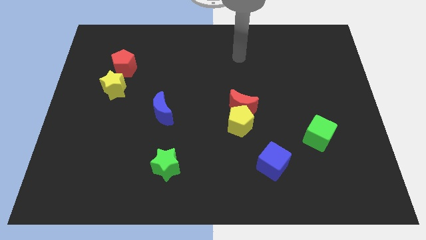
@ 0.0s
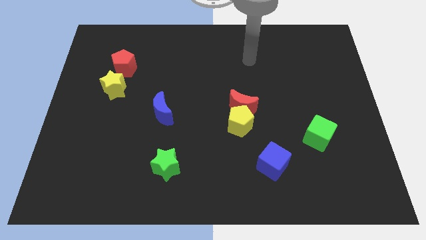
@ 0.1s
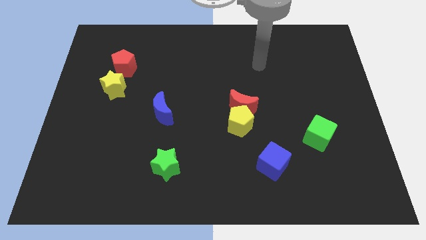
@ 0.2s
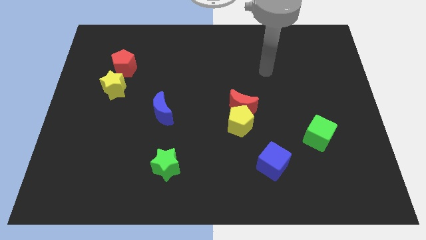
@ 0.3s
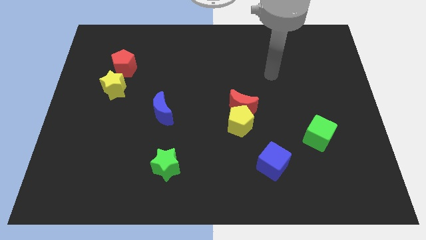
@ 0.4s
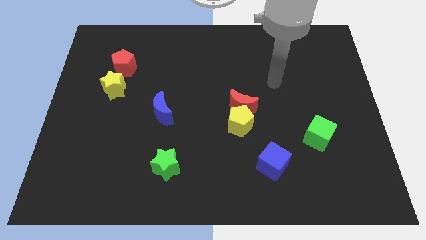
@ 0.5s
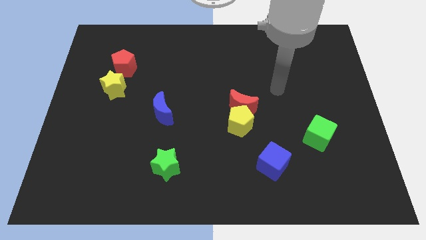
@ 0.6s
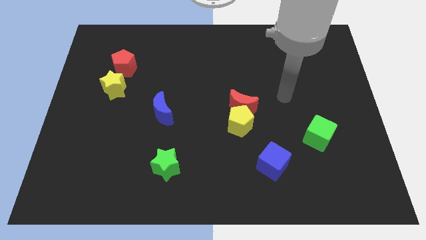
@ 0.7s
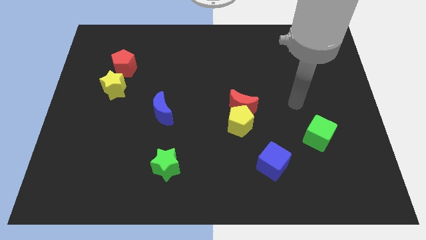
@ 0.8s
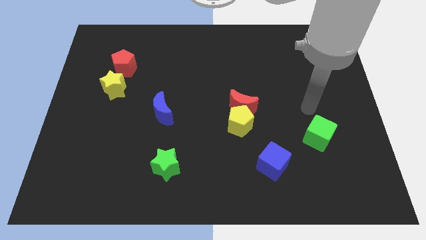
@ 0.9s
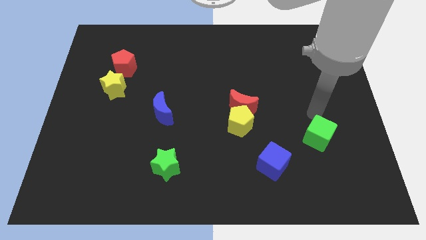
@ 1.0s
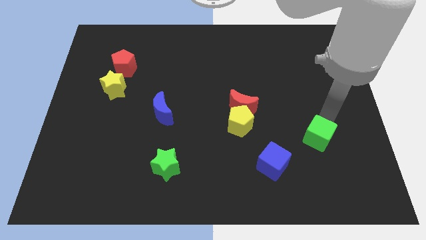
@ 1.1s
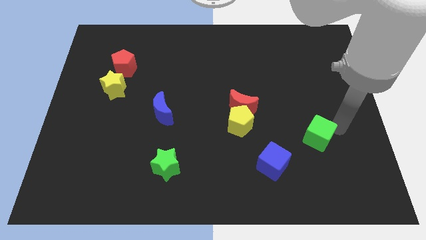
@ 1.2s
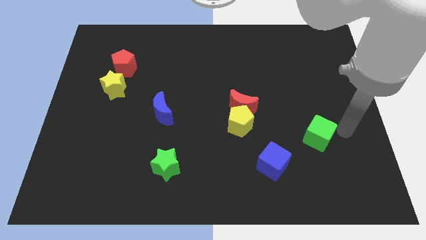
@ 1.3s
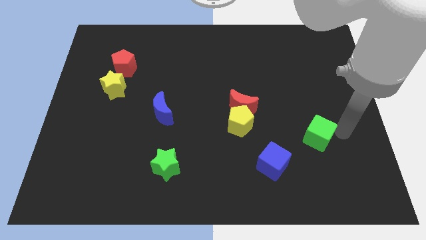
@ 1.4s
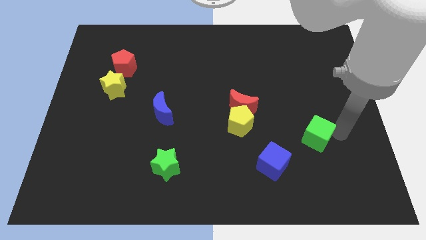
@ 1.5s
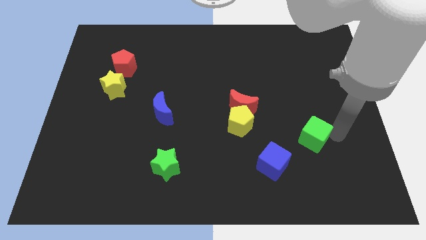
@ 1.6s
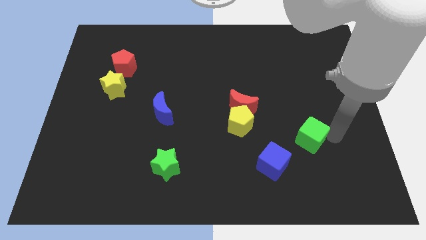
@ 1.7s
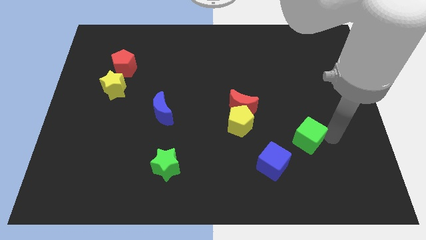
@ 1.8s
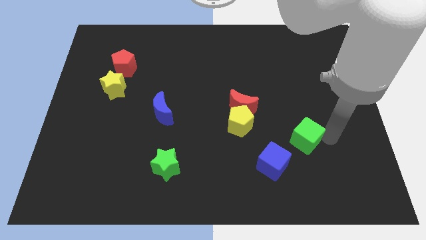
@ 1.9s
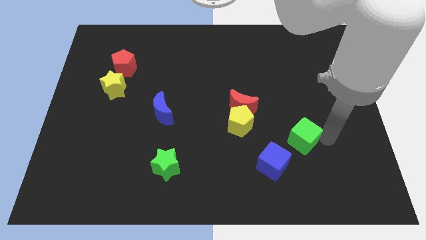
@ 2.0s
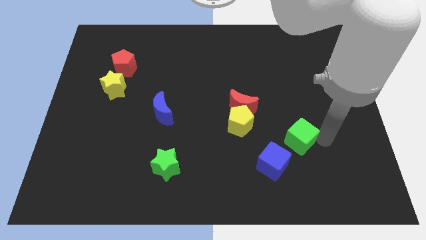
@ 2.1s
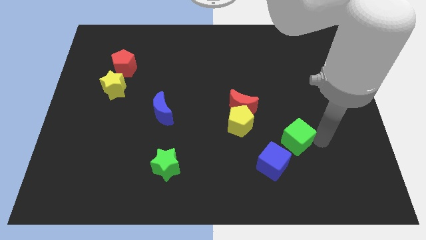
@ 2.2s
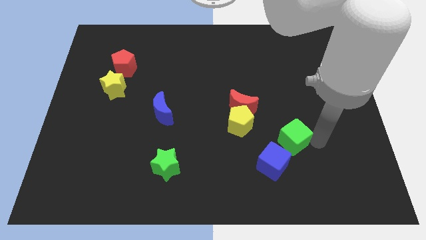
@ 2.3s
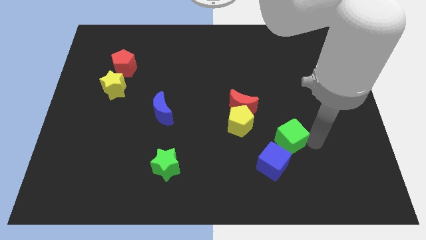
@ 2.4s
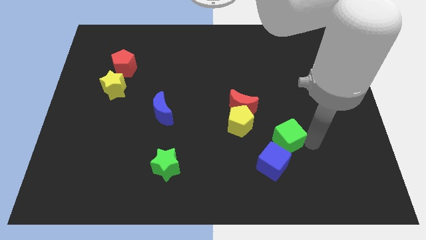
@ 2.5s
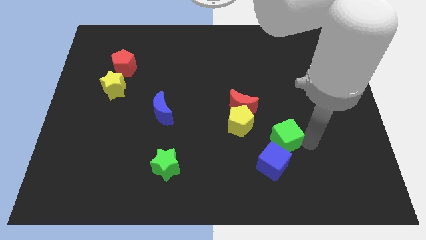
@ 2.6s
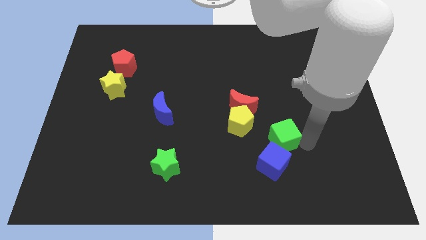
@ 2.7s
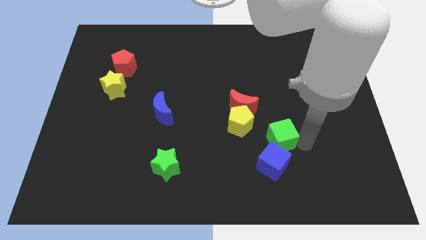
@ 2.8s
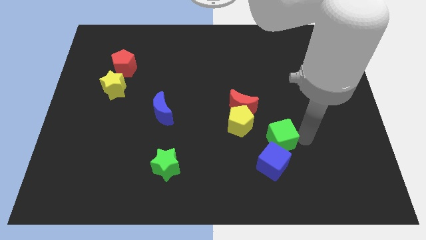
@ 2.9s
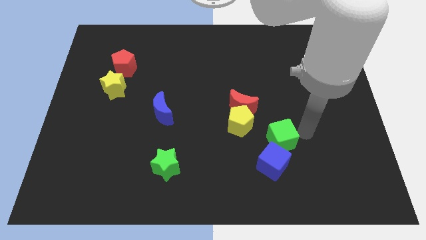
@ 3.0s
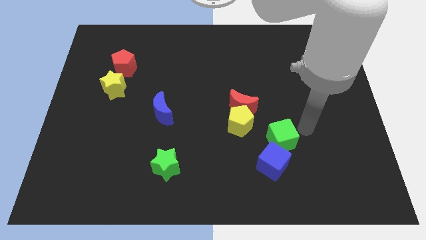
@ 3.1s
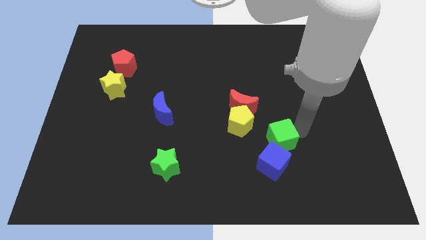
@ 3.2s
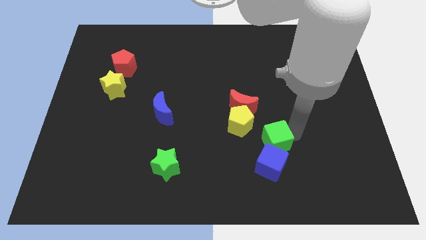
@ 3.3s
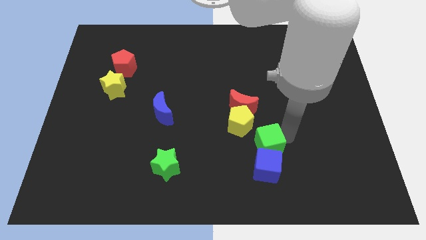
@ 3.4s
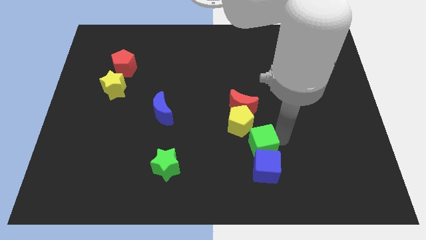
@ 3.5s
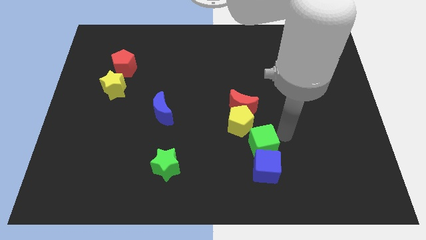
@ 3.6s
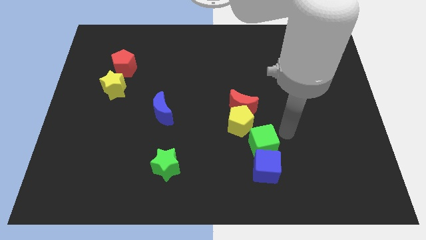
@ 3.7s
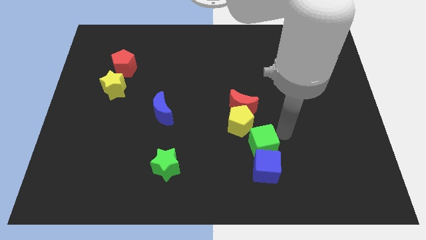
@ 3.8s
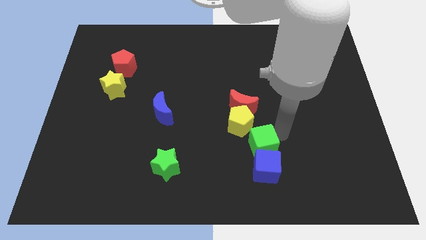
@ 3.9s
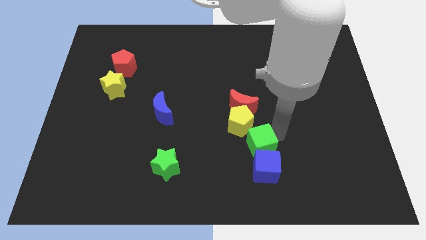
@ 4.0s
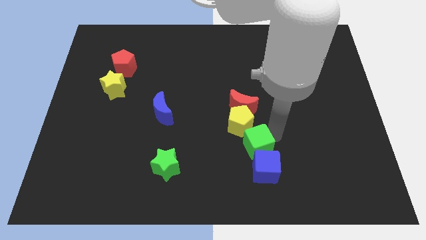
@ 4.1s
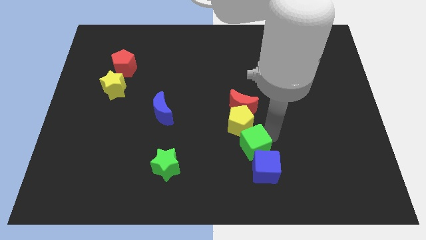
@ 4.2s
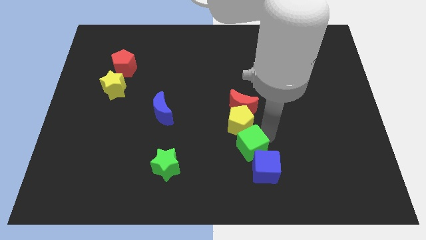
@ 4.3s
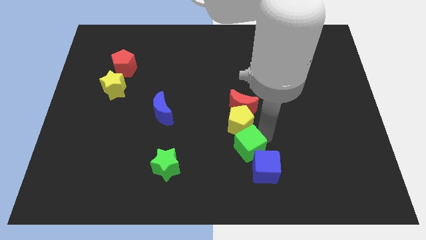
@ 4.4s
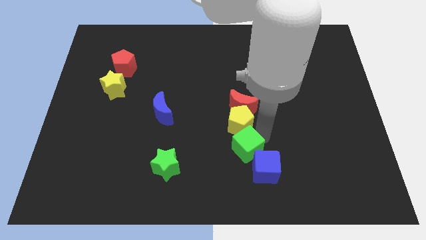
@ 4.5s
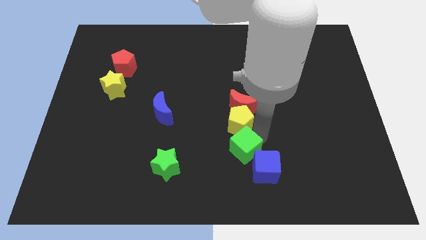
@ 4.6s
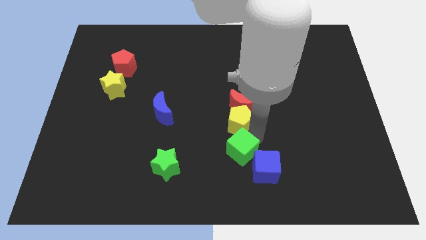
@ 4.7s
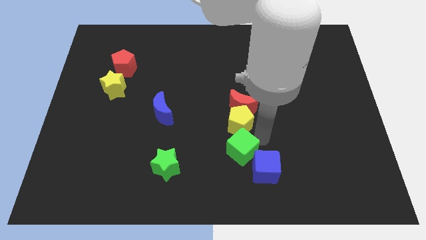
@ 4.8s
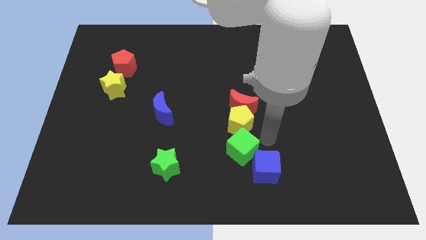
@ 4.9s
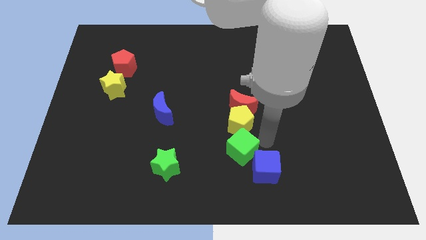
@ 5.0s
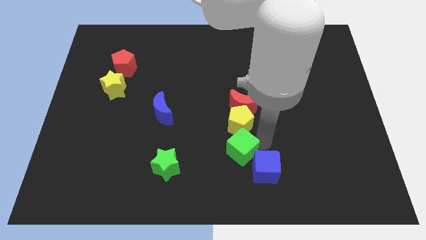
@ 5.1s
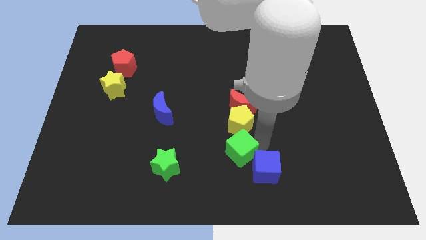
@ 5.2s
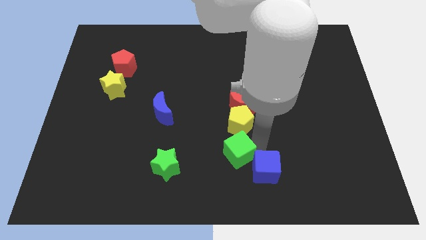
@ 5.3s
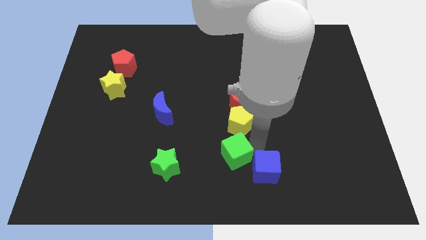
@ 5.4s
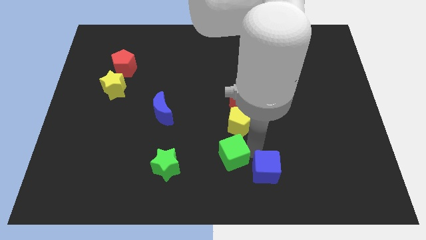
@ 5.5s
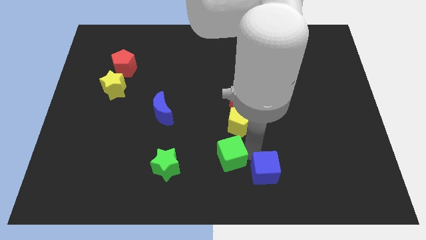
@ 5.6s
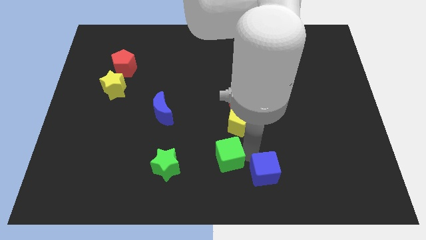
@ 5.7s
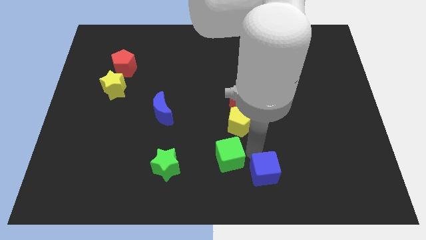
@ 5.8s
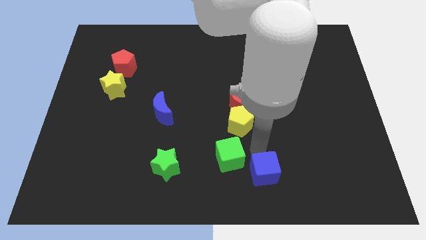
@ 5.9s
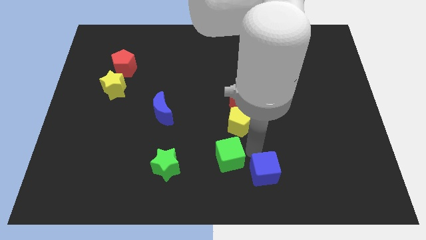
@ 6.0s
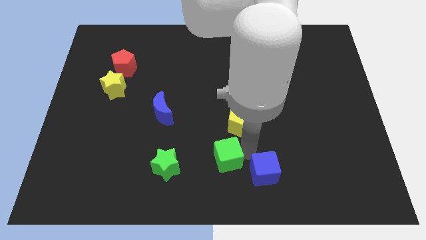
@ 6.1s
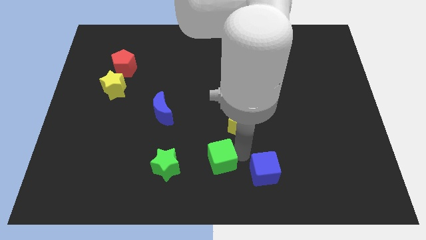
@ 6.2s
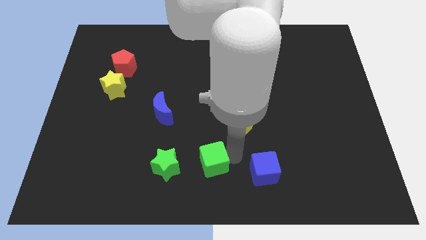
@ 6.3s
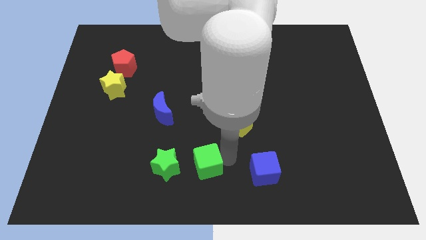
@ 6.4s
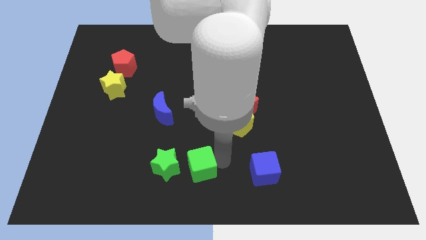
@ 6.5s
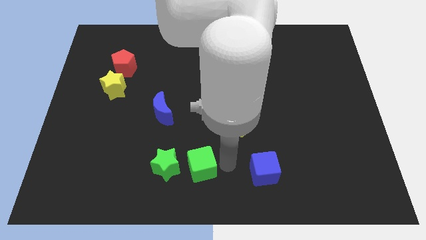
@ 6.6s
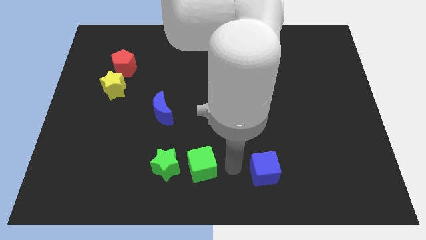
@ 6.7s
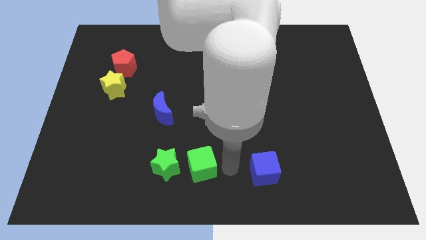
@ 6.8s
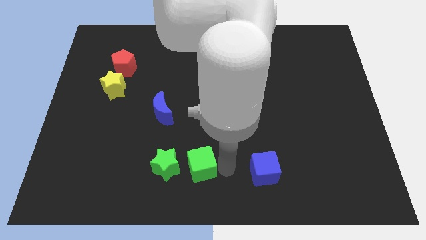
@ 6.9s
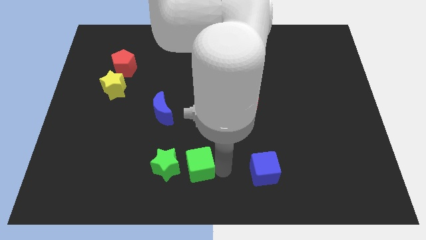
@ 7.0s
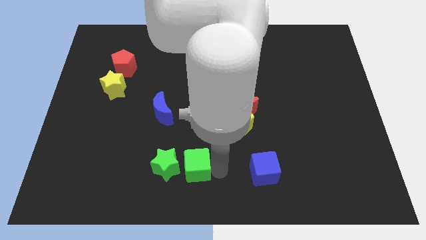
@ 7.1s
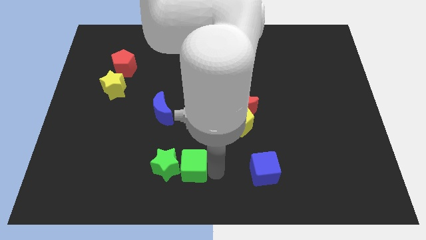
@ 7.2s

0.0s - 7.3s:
slide the green cube next to the green star

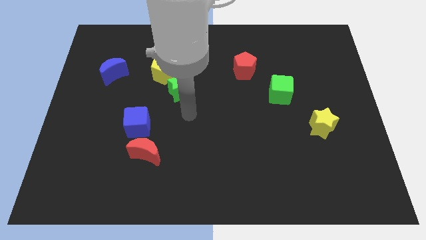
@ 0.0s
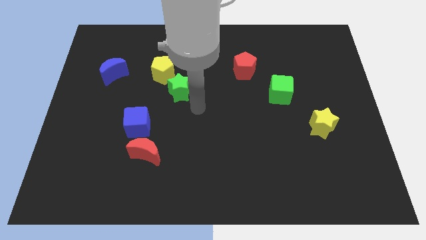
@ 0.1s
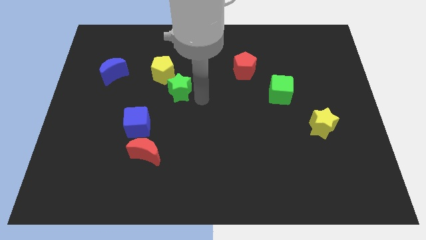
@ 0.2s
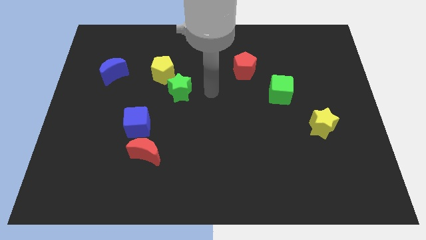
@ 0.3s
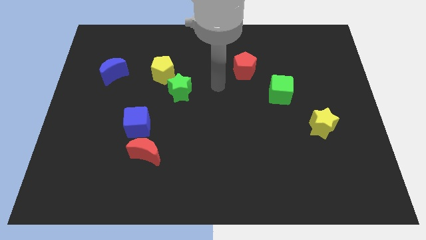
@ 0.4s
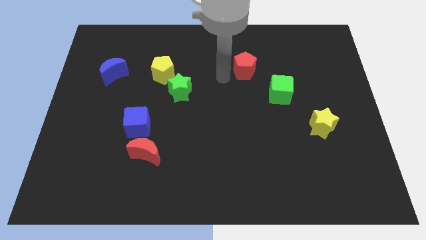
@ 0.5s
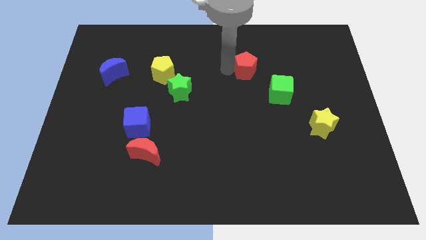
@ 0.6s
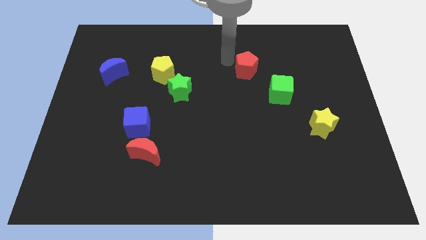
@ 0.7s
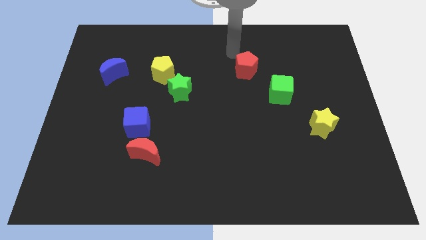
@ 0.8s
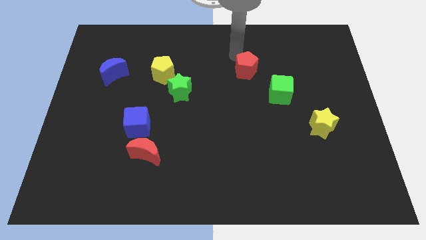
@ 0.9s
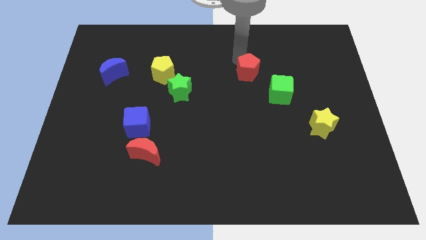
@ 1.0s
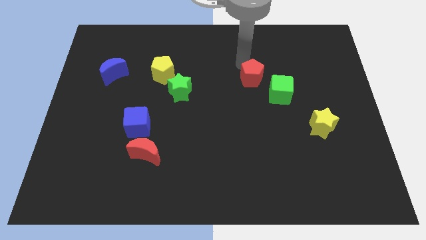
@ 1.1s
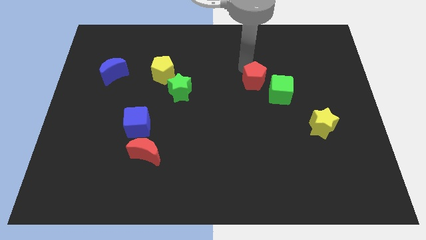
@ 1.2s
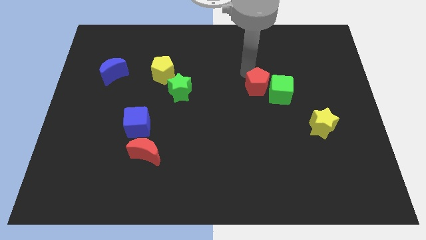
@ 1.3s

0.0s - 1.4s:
slide the red pentagon to the green cube
